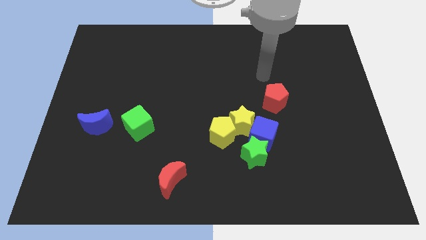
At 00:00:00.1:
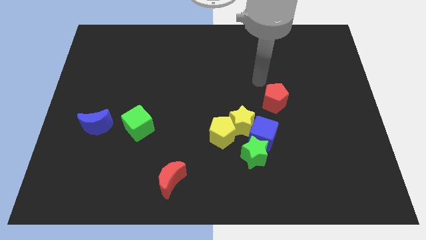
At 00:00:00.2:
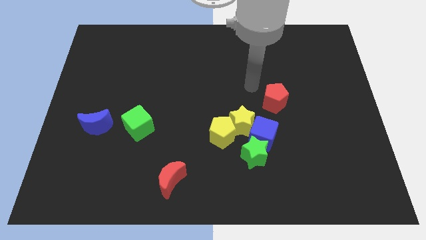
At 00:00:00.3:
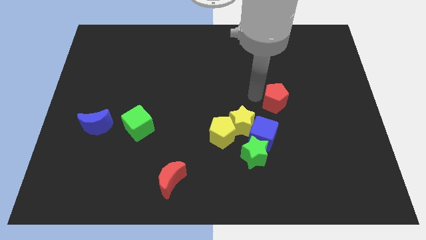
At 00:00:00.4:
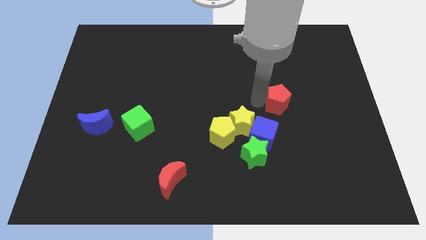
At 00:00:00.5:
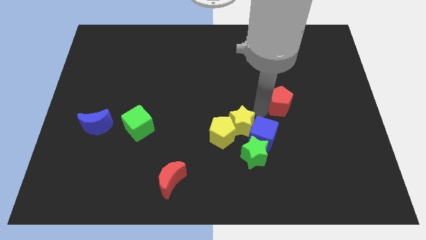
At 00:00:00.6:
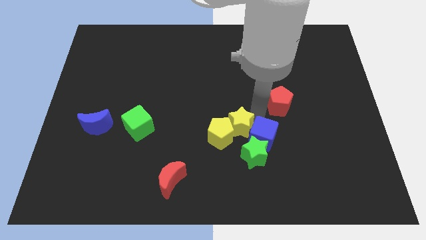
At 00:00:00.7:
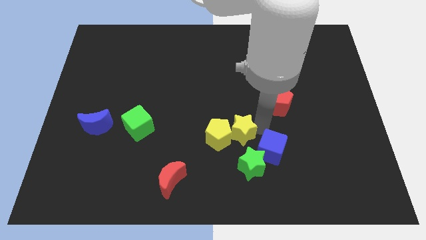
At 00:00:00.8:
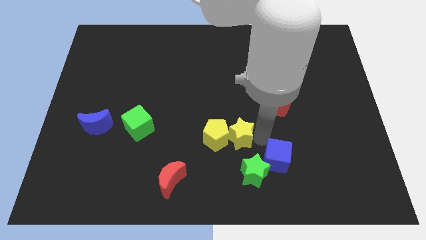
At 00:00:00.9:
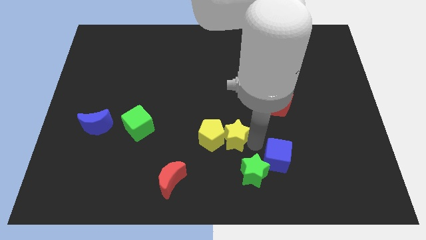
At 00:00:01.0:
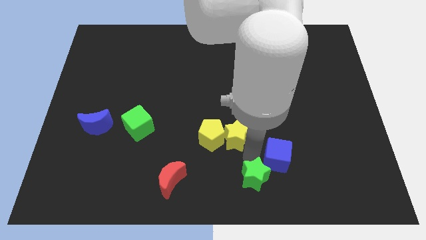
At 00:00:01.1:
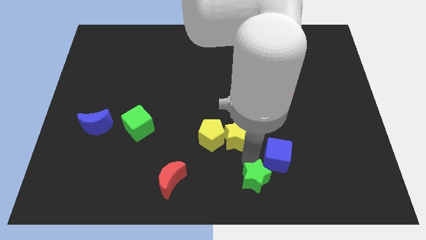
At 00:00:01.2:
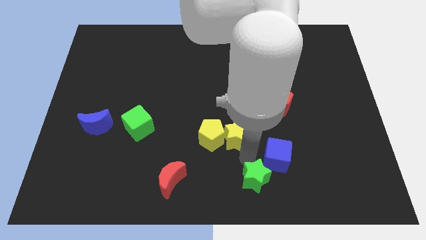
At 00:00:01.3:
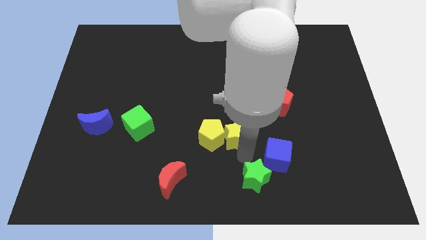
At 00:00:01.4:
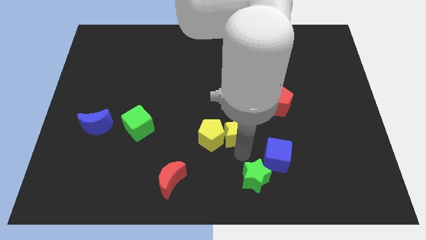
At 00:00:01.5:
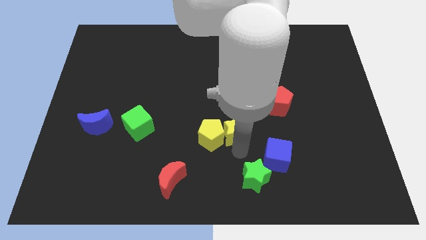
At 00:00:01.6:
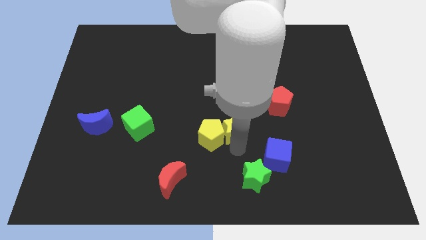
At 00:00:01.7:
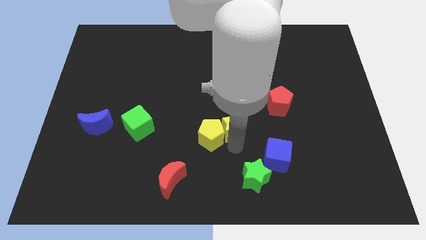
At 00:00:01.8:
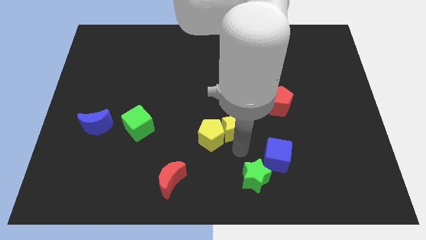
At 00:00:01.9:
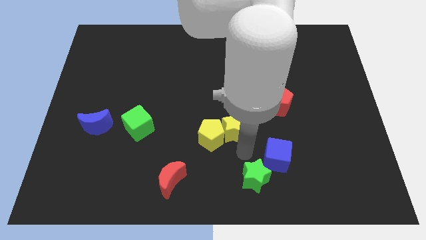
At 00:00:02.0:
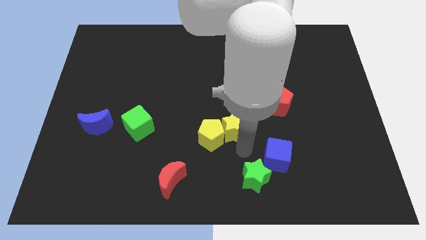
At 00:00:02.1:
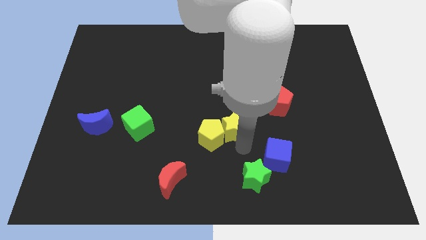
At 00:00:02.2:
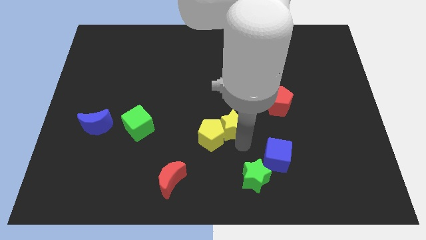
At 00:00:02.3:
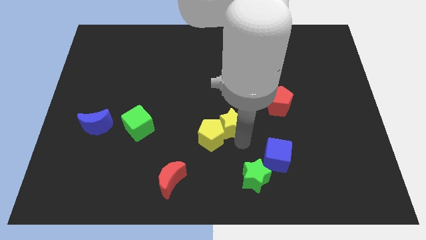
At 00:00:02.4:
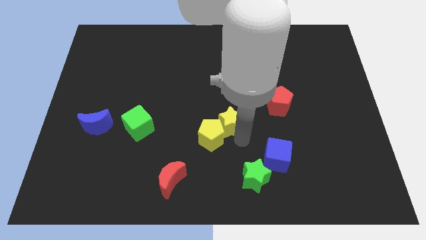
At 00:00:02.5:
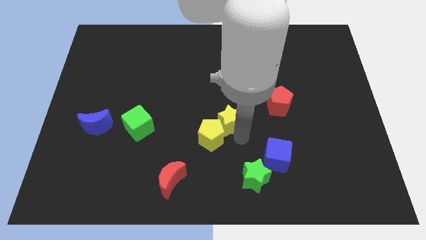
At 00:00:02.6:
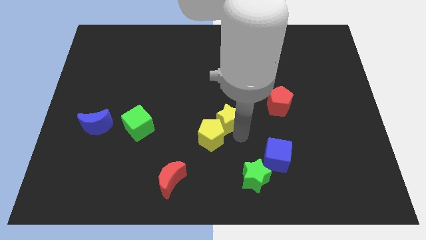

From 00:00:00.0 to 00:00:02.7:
separate the yellow star from the yellow pentagon, blue cube, and green star

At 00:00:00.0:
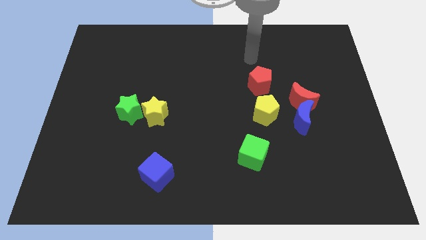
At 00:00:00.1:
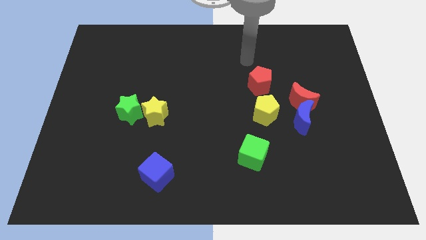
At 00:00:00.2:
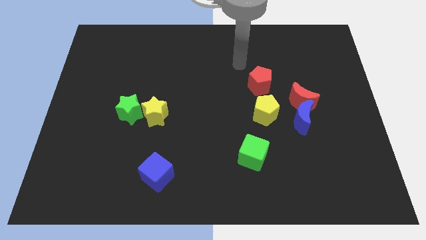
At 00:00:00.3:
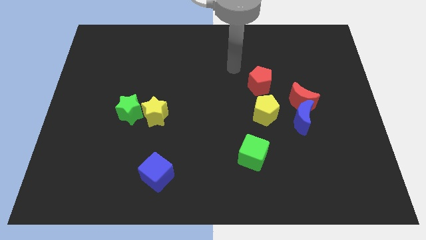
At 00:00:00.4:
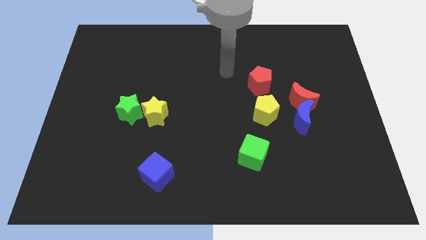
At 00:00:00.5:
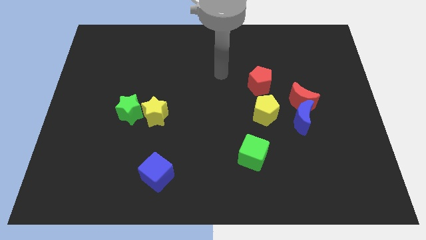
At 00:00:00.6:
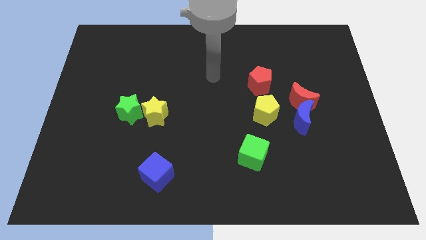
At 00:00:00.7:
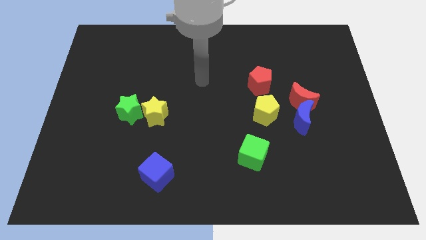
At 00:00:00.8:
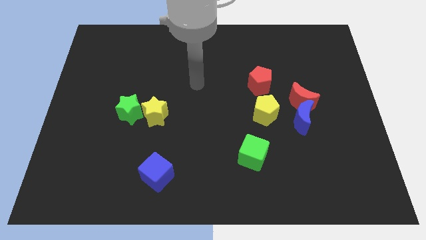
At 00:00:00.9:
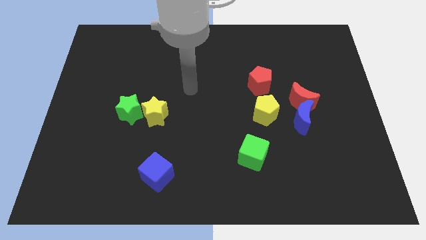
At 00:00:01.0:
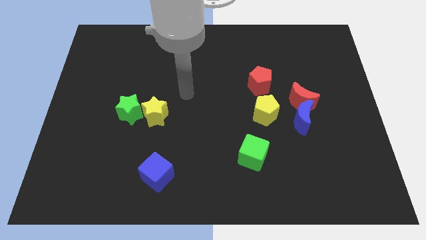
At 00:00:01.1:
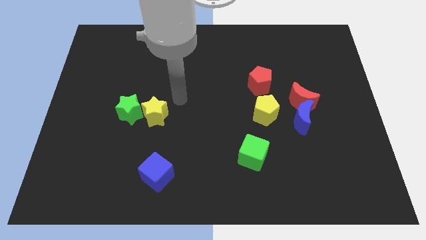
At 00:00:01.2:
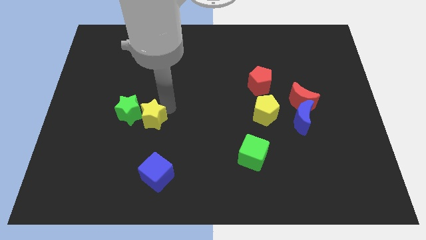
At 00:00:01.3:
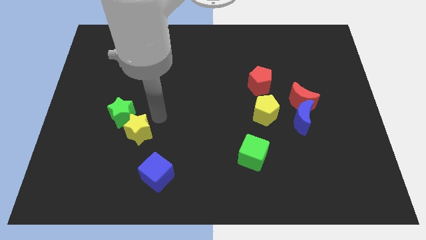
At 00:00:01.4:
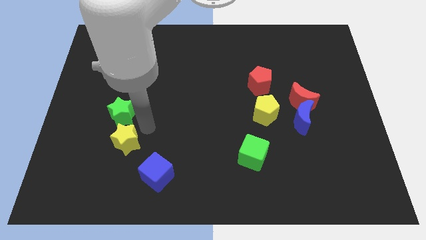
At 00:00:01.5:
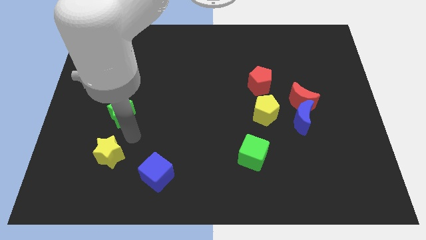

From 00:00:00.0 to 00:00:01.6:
separate the green star from the yellow star

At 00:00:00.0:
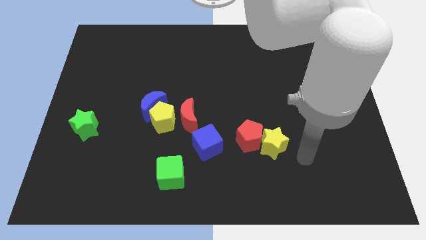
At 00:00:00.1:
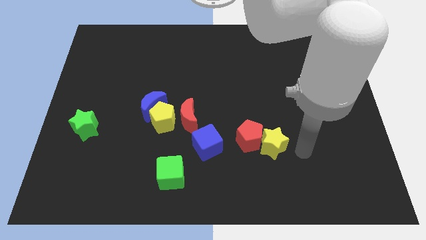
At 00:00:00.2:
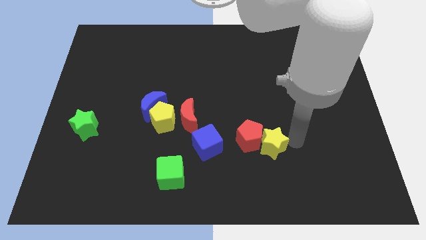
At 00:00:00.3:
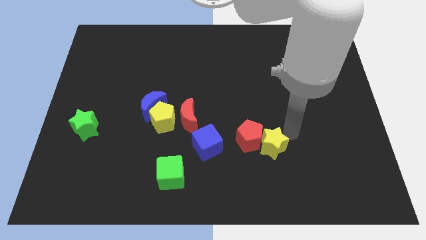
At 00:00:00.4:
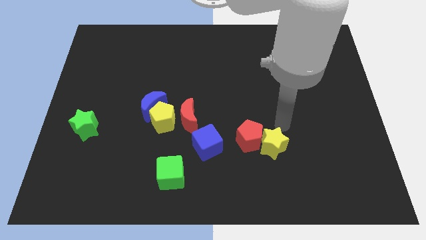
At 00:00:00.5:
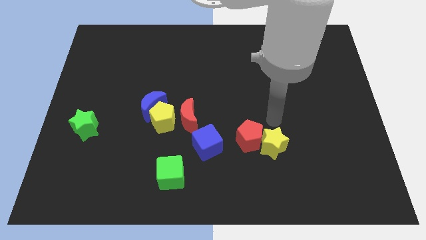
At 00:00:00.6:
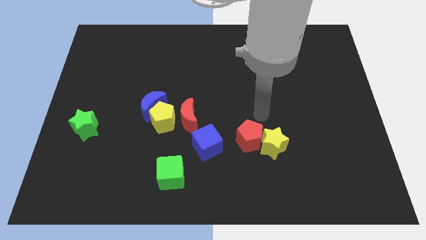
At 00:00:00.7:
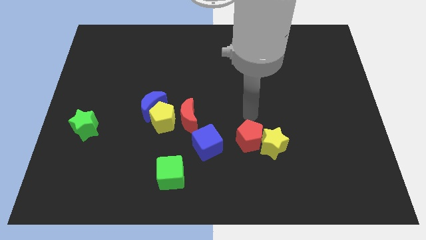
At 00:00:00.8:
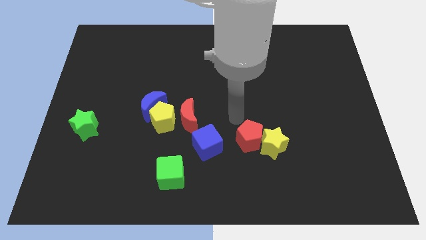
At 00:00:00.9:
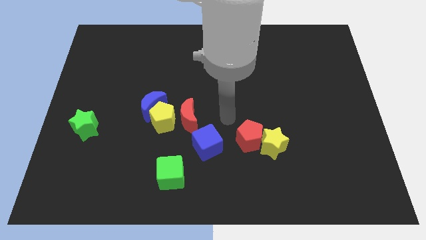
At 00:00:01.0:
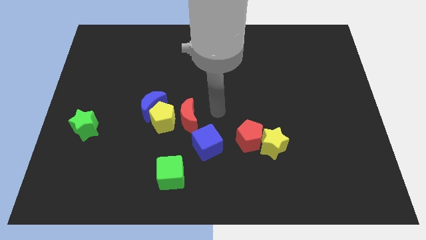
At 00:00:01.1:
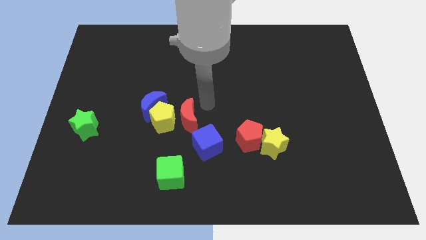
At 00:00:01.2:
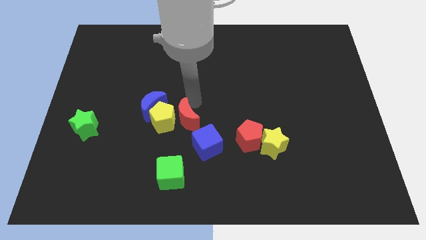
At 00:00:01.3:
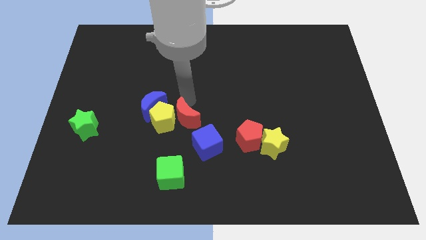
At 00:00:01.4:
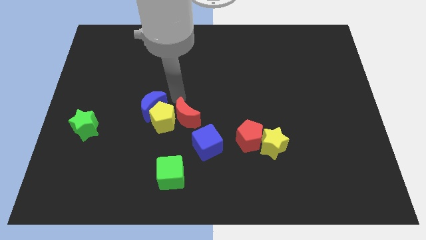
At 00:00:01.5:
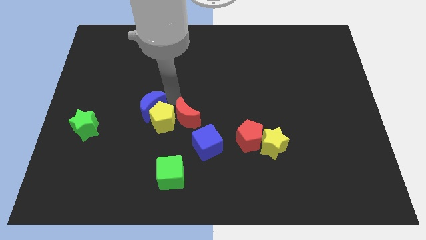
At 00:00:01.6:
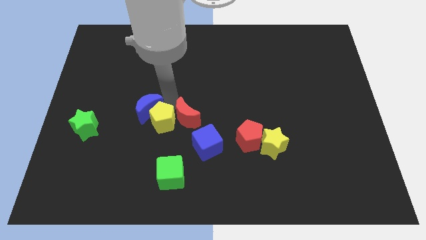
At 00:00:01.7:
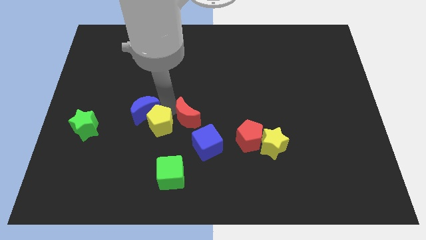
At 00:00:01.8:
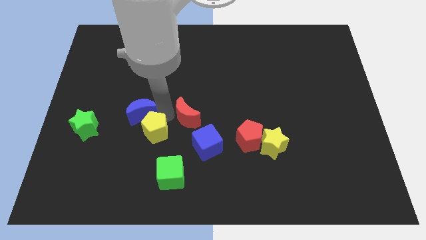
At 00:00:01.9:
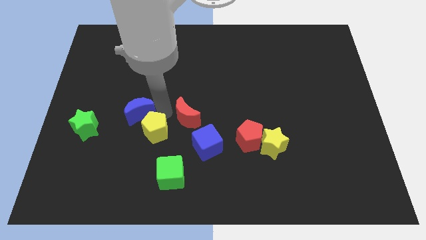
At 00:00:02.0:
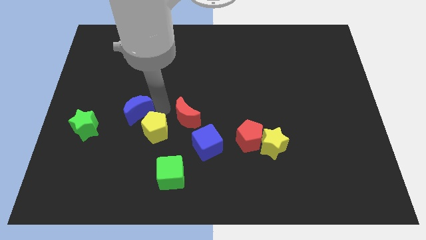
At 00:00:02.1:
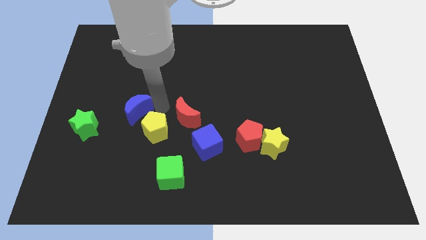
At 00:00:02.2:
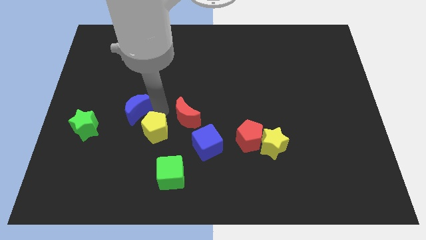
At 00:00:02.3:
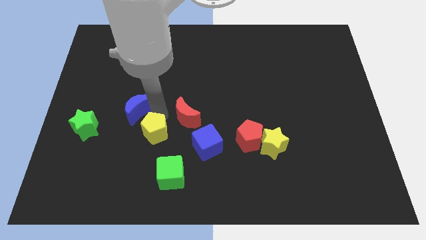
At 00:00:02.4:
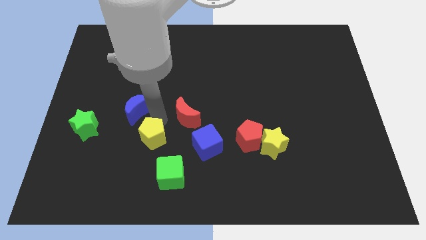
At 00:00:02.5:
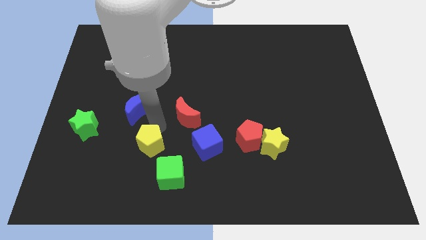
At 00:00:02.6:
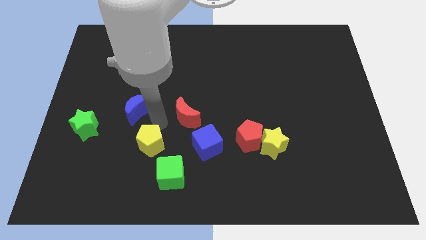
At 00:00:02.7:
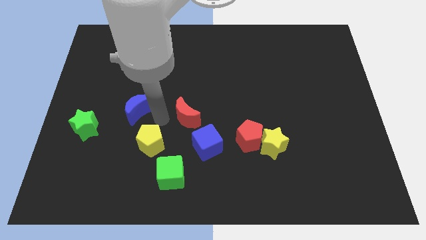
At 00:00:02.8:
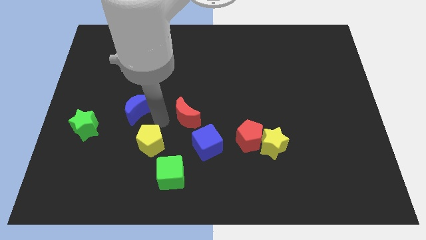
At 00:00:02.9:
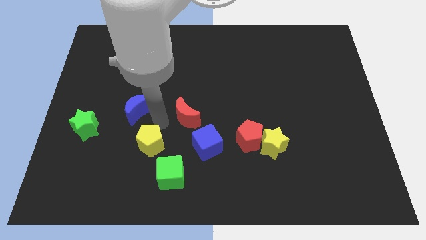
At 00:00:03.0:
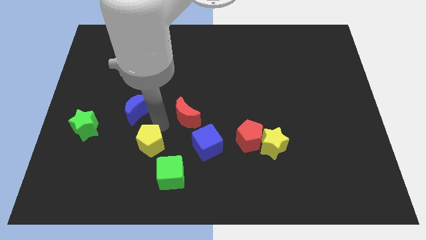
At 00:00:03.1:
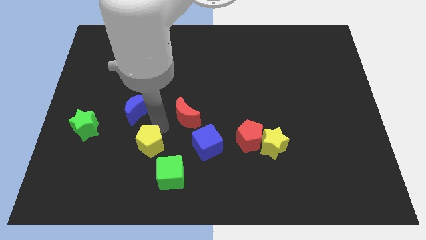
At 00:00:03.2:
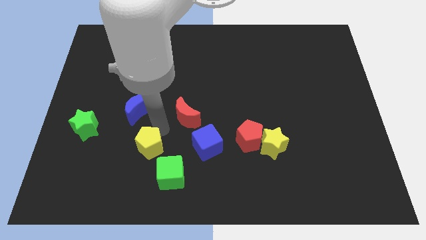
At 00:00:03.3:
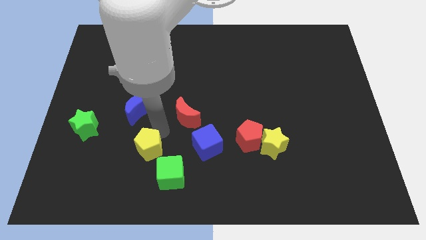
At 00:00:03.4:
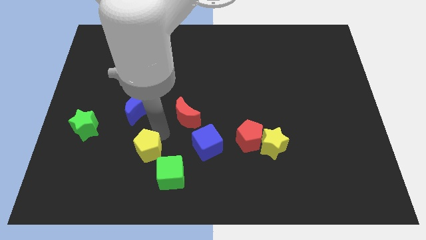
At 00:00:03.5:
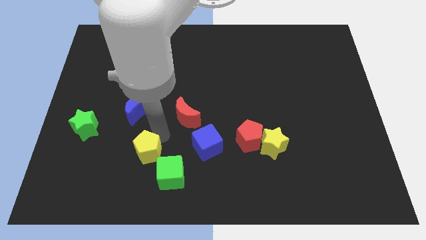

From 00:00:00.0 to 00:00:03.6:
move the yellow pentagon away from the blue moon and red moon

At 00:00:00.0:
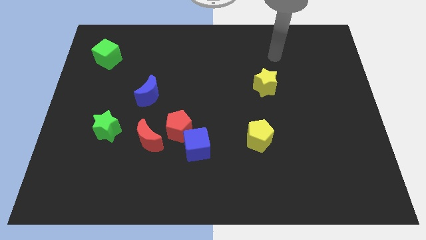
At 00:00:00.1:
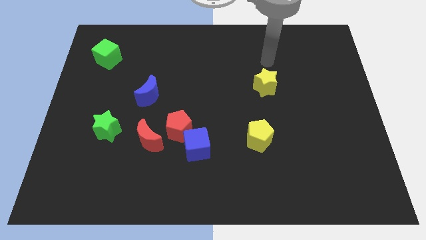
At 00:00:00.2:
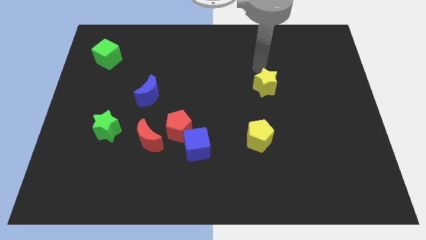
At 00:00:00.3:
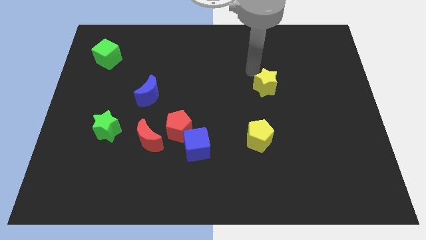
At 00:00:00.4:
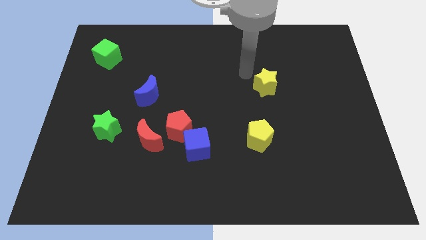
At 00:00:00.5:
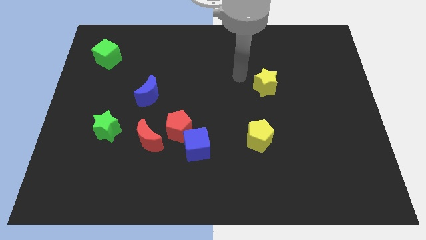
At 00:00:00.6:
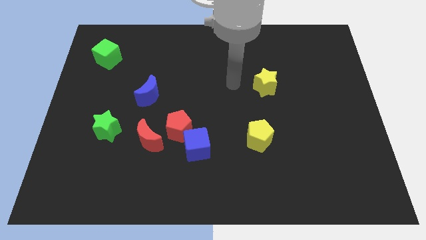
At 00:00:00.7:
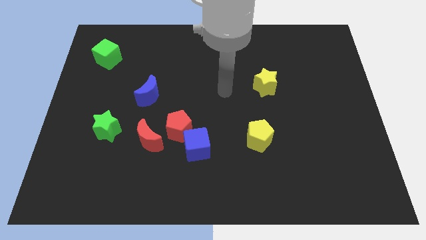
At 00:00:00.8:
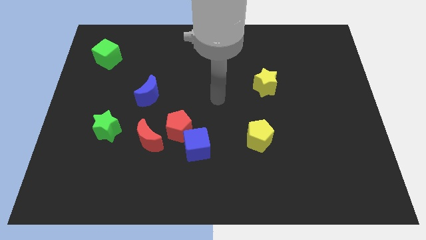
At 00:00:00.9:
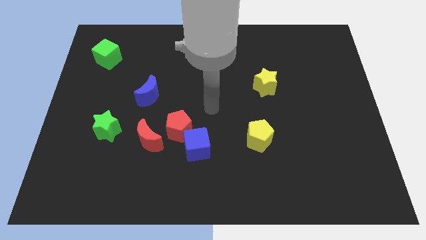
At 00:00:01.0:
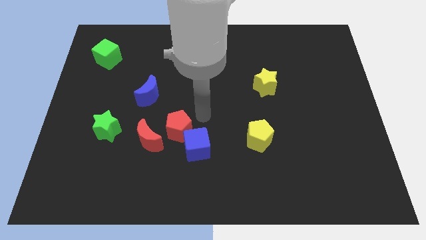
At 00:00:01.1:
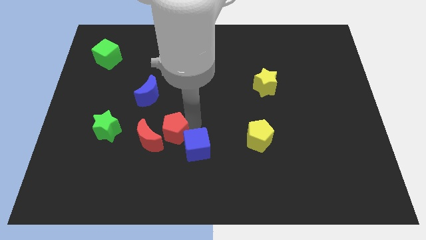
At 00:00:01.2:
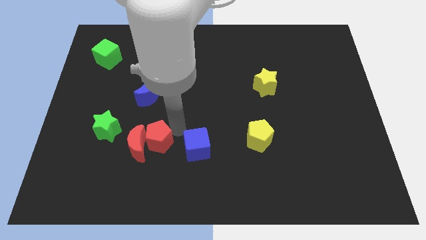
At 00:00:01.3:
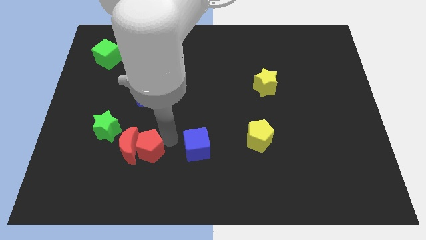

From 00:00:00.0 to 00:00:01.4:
move the blue cube away from the red pentagon

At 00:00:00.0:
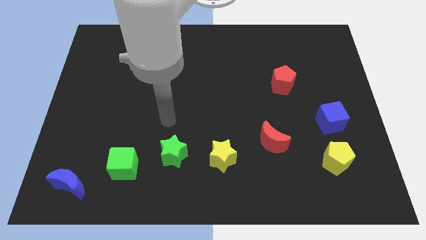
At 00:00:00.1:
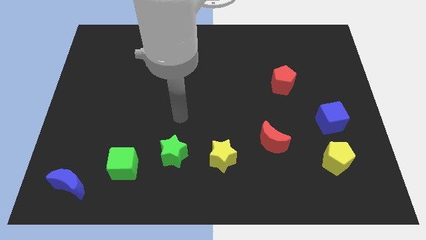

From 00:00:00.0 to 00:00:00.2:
separate the blue cube from the yellow pentagon
